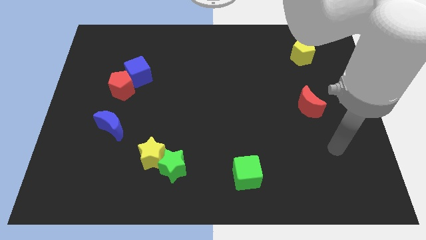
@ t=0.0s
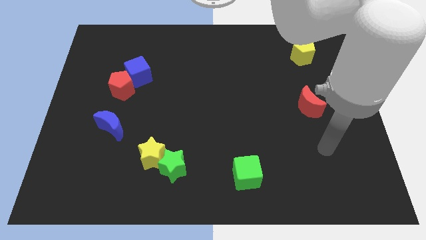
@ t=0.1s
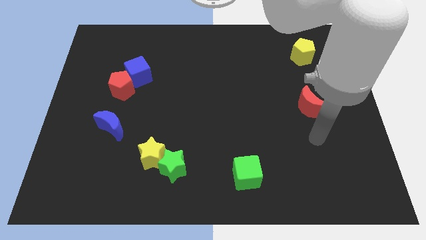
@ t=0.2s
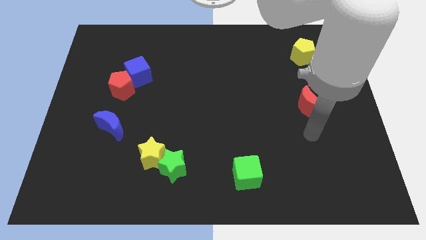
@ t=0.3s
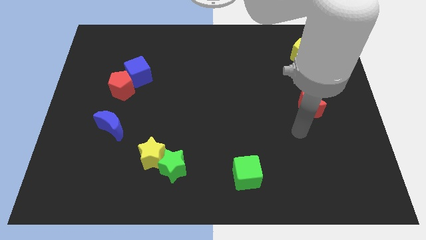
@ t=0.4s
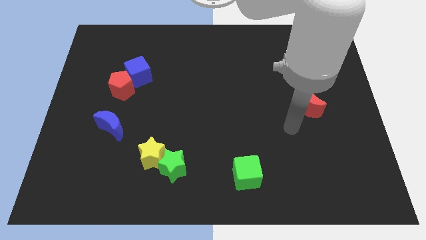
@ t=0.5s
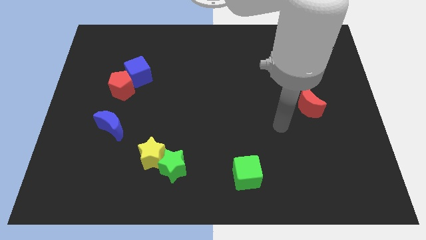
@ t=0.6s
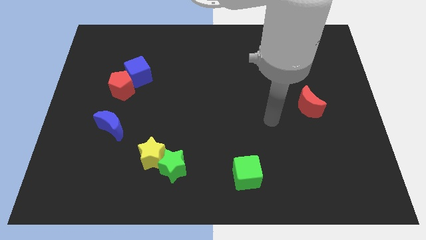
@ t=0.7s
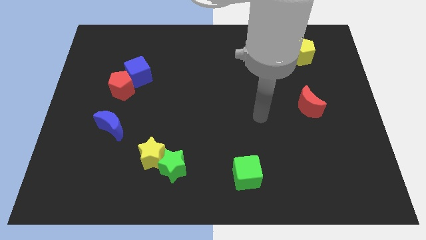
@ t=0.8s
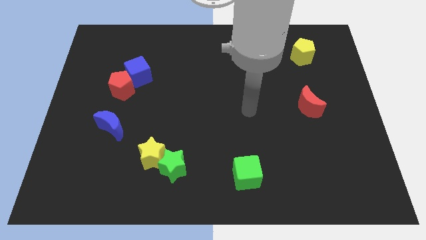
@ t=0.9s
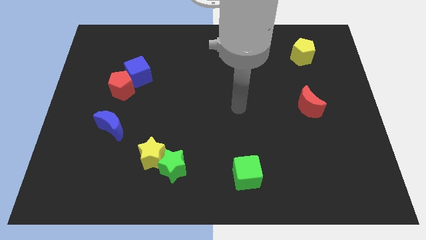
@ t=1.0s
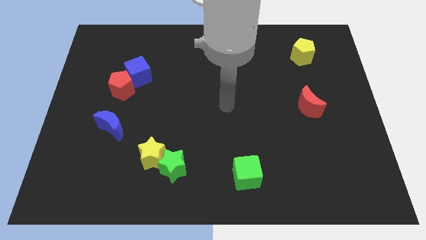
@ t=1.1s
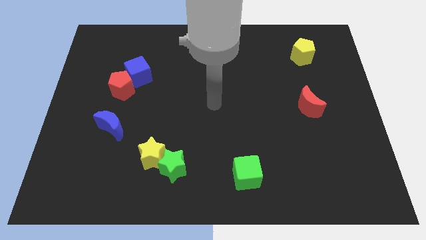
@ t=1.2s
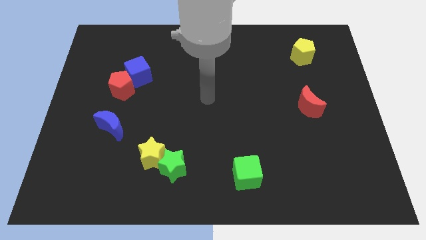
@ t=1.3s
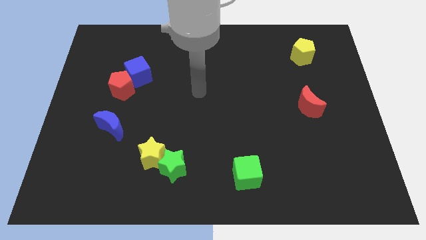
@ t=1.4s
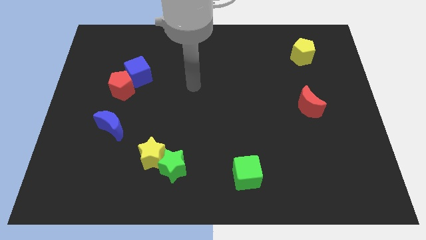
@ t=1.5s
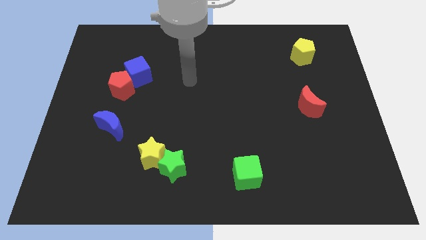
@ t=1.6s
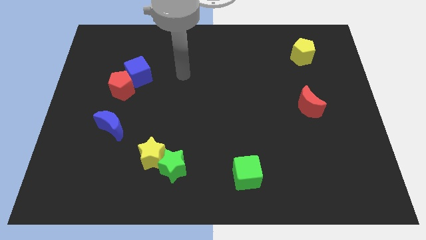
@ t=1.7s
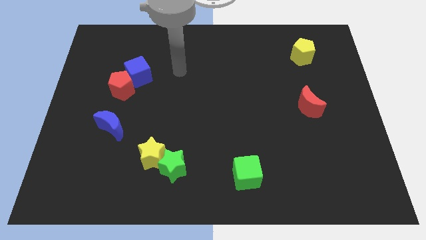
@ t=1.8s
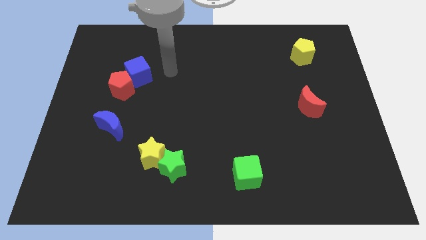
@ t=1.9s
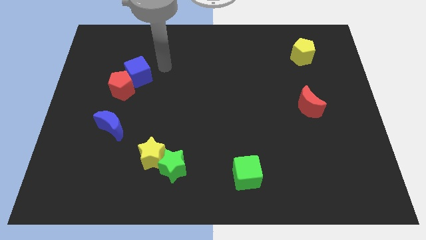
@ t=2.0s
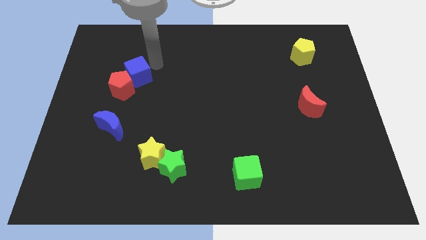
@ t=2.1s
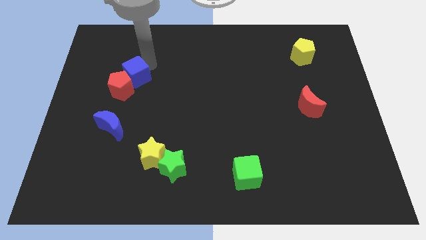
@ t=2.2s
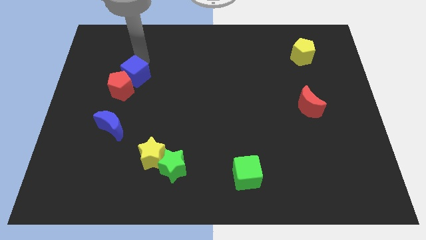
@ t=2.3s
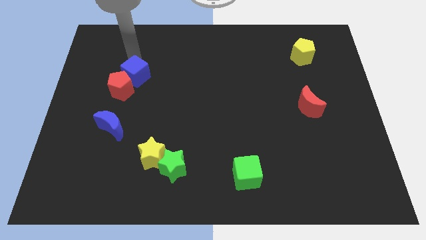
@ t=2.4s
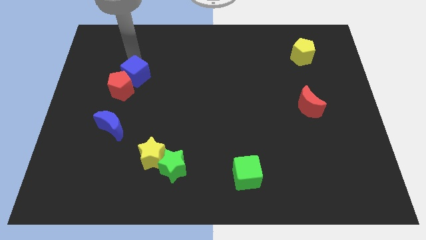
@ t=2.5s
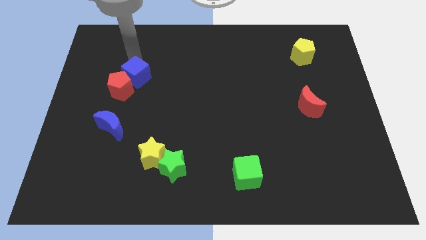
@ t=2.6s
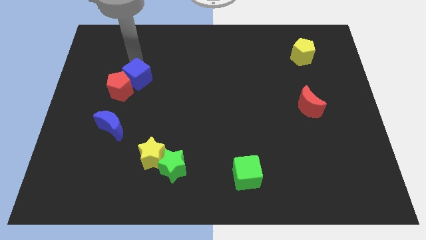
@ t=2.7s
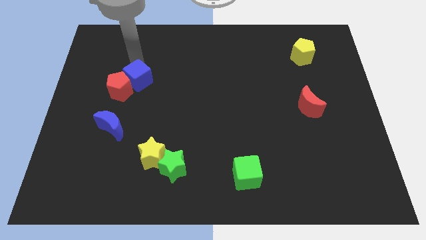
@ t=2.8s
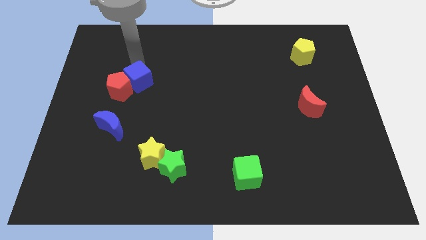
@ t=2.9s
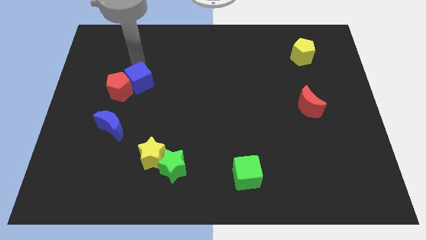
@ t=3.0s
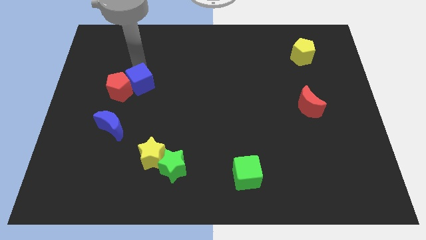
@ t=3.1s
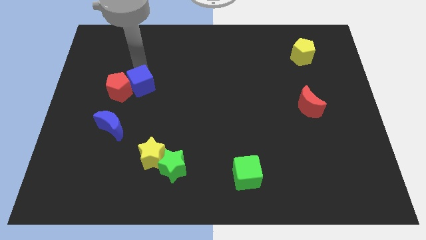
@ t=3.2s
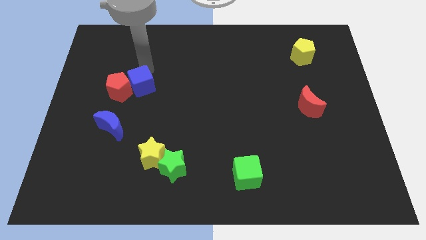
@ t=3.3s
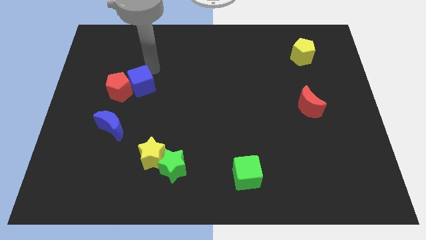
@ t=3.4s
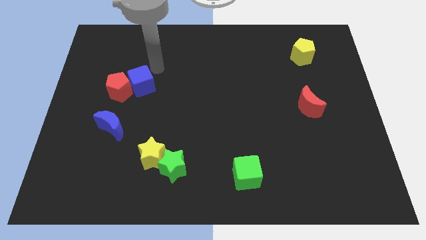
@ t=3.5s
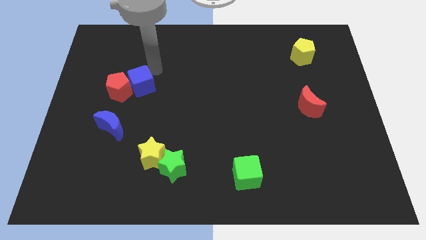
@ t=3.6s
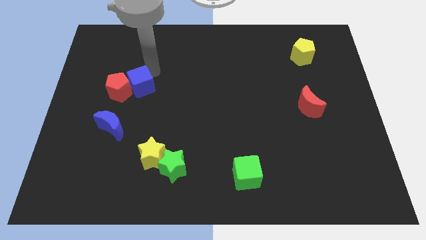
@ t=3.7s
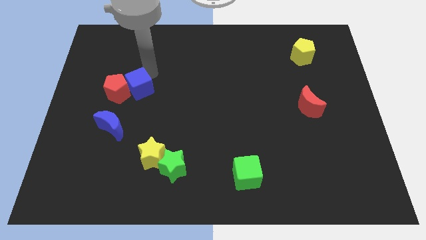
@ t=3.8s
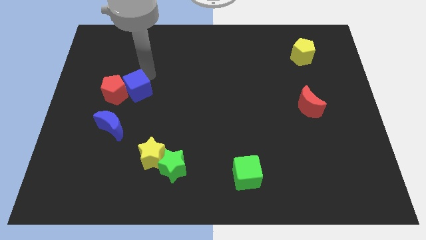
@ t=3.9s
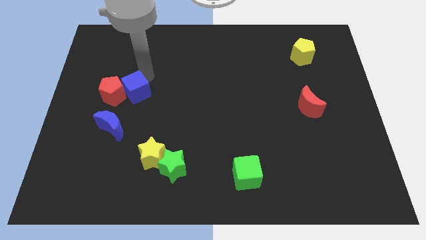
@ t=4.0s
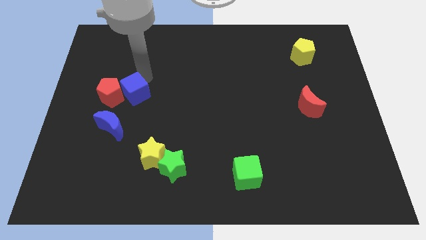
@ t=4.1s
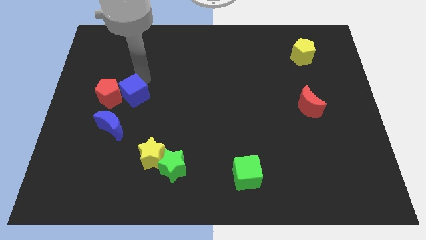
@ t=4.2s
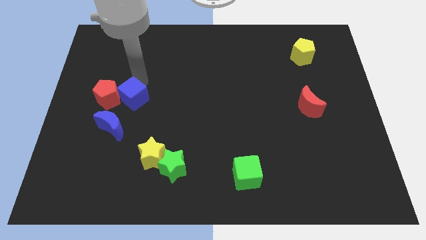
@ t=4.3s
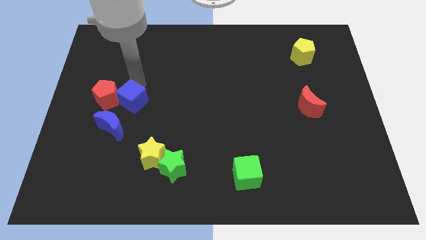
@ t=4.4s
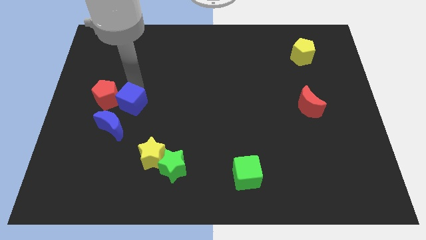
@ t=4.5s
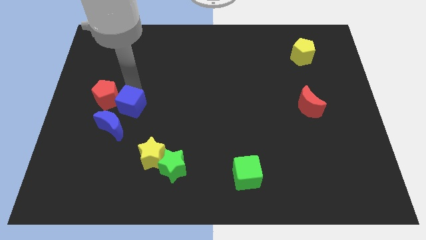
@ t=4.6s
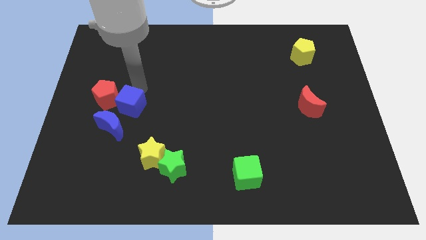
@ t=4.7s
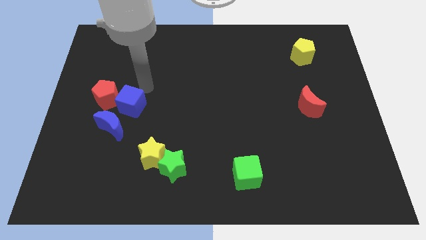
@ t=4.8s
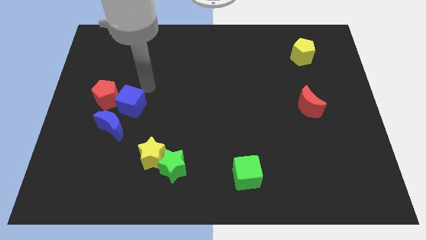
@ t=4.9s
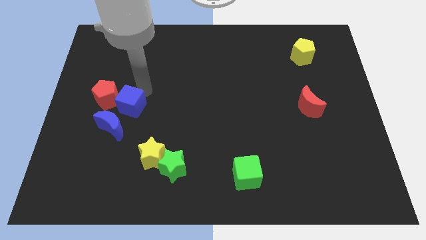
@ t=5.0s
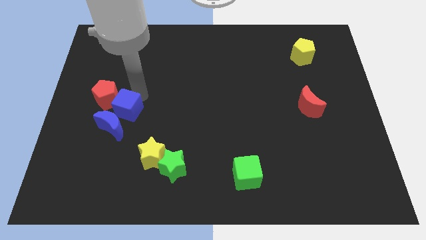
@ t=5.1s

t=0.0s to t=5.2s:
slide the blue cube close to the blue moon

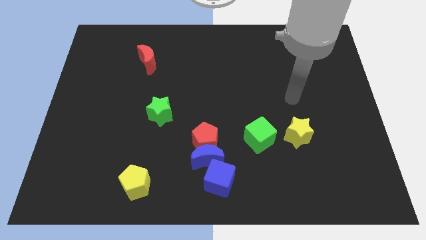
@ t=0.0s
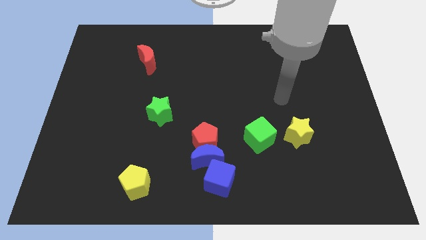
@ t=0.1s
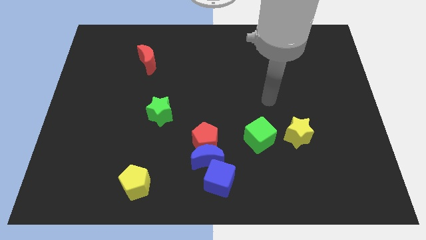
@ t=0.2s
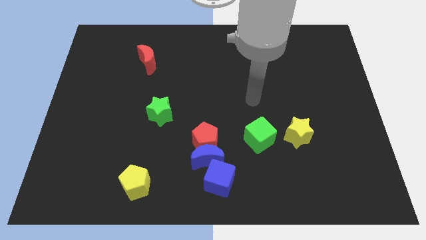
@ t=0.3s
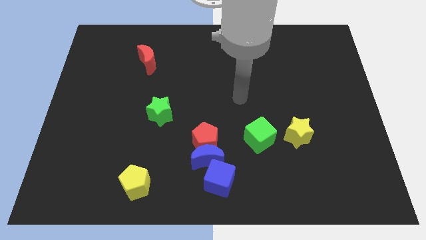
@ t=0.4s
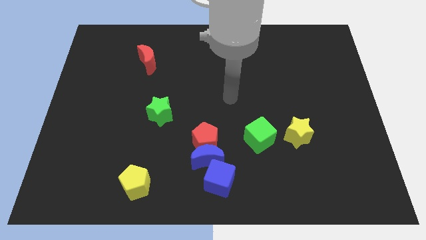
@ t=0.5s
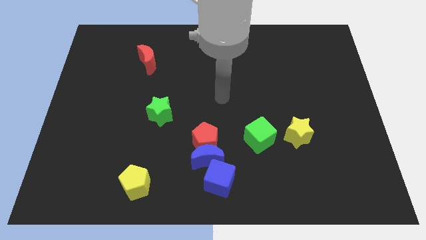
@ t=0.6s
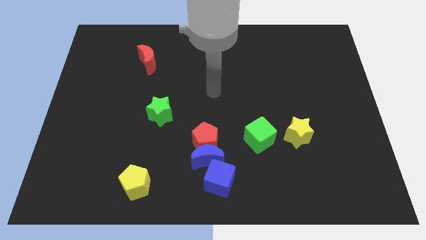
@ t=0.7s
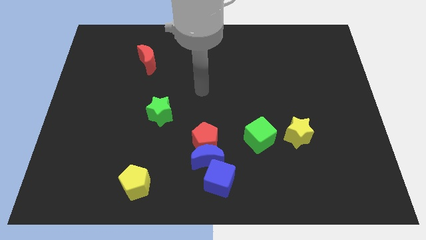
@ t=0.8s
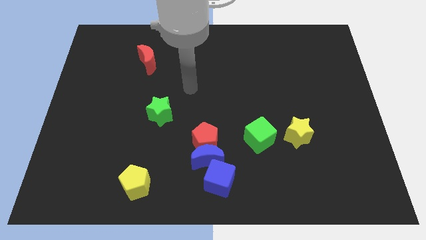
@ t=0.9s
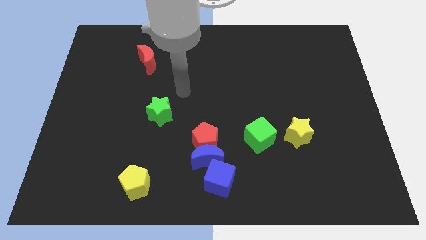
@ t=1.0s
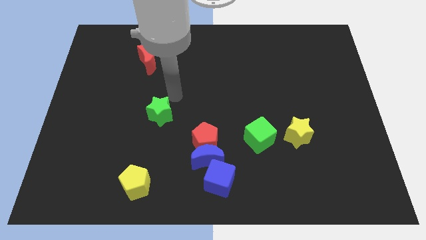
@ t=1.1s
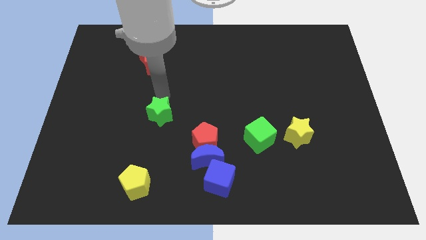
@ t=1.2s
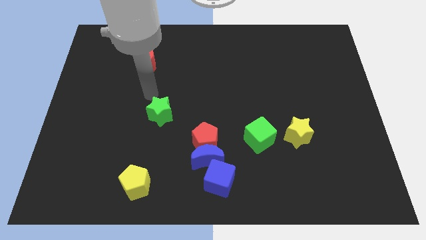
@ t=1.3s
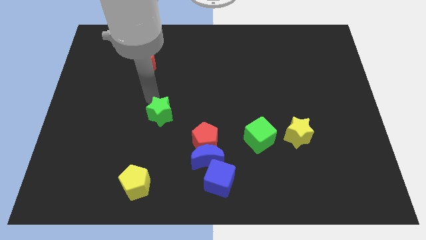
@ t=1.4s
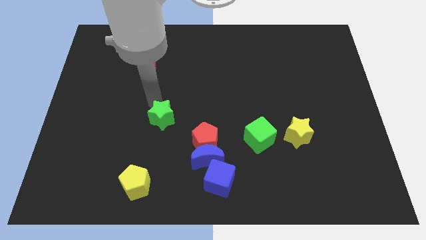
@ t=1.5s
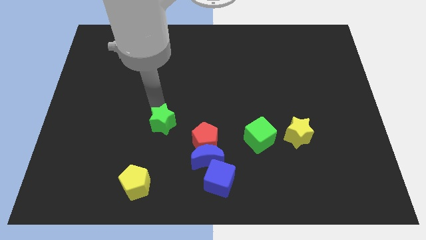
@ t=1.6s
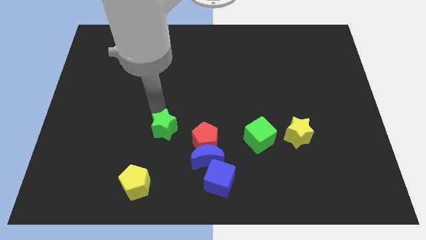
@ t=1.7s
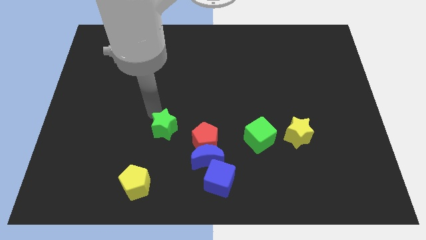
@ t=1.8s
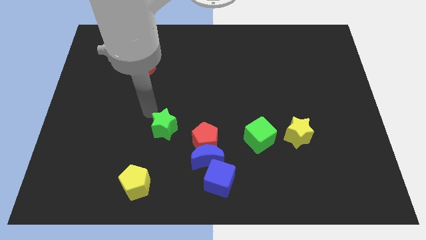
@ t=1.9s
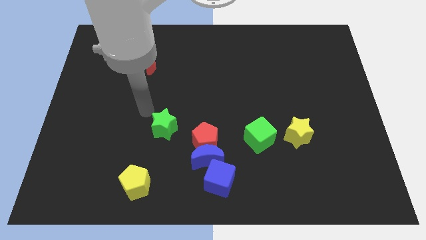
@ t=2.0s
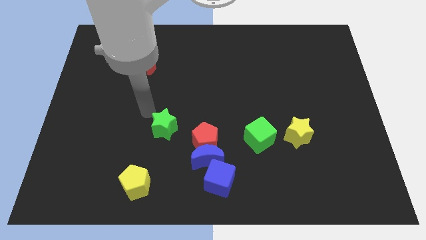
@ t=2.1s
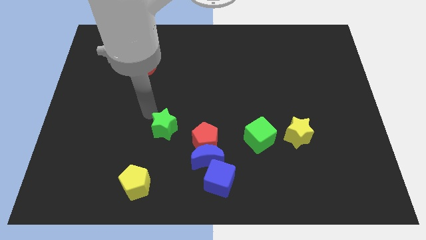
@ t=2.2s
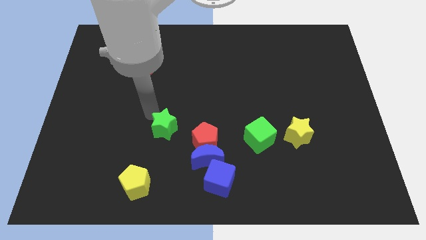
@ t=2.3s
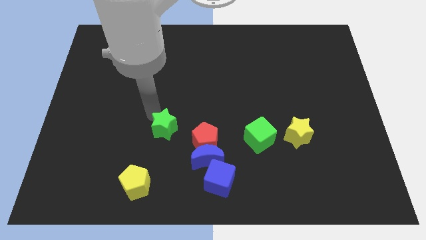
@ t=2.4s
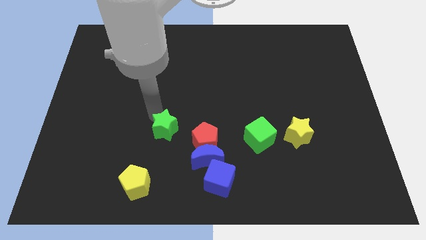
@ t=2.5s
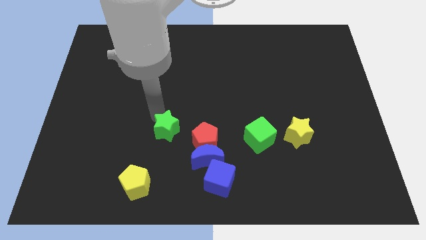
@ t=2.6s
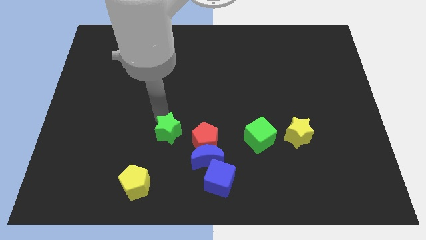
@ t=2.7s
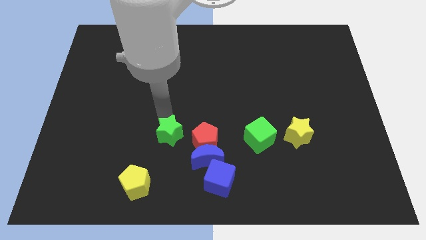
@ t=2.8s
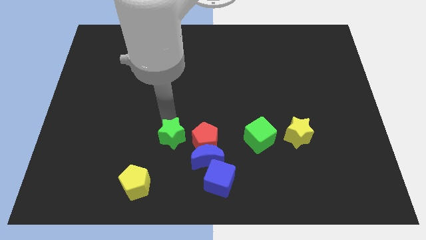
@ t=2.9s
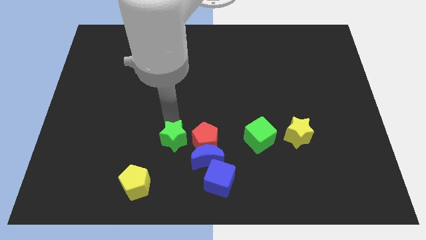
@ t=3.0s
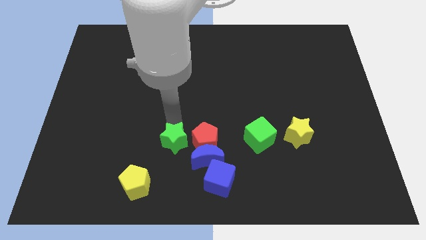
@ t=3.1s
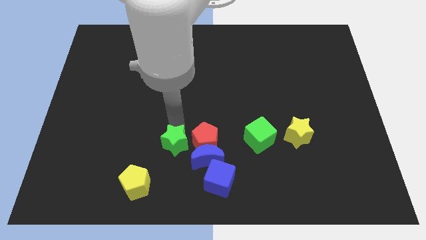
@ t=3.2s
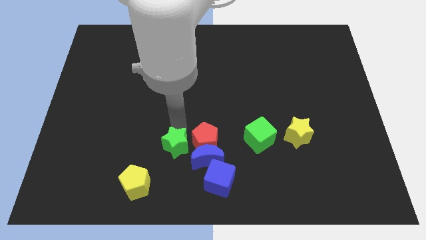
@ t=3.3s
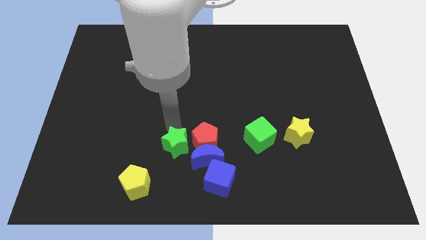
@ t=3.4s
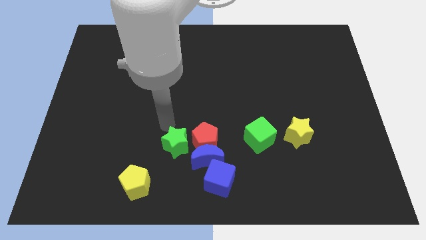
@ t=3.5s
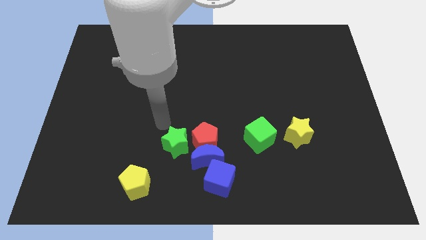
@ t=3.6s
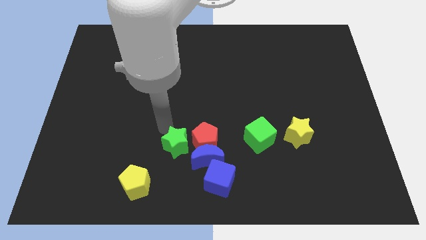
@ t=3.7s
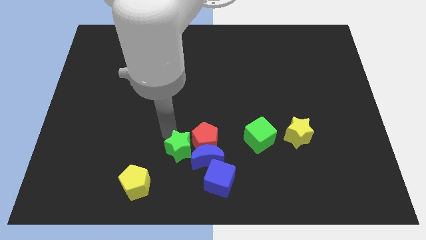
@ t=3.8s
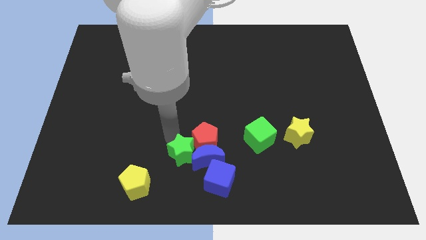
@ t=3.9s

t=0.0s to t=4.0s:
put the green star towards the blue moon
